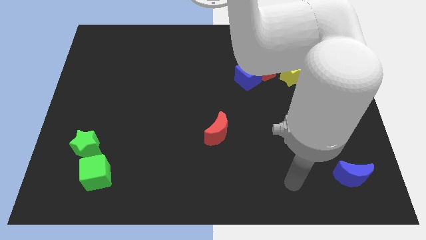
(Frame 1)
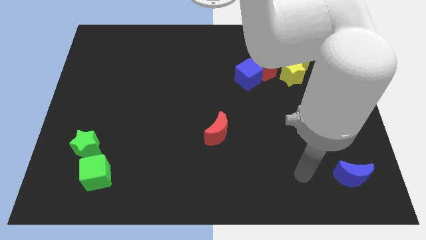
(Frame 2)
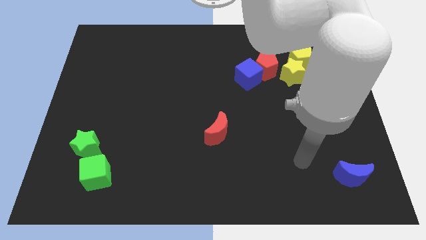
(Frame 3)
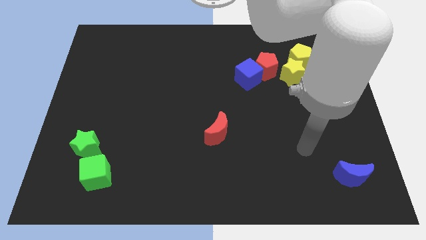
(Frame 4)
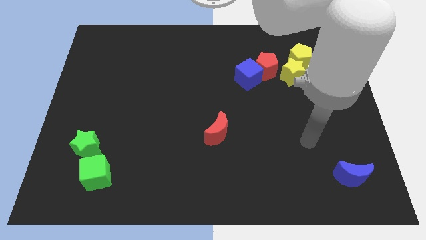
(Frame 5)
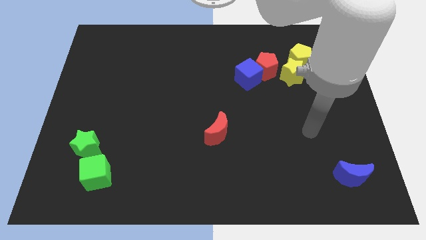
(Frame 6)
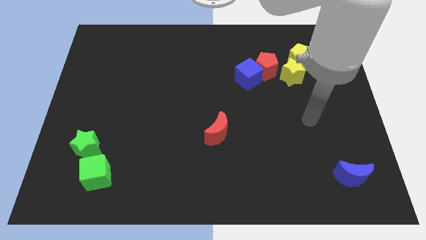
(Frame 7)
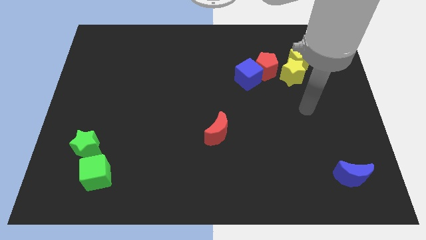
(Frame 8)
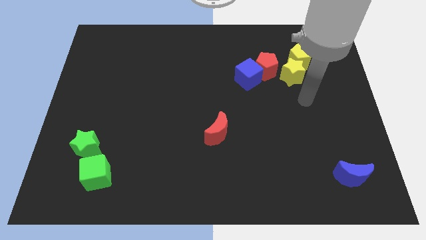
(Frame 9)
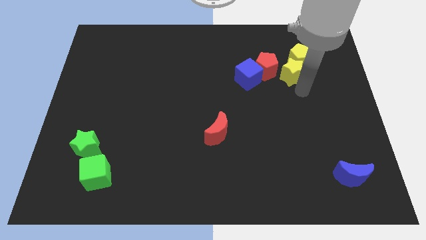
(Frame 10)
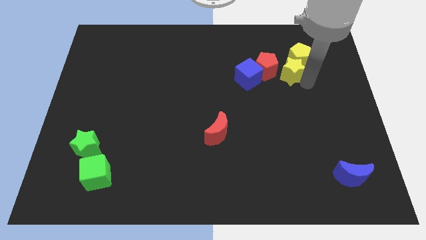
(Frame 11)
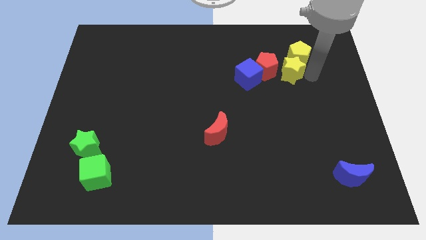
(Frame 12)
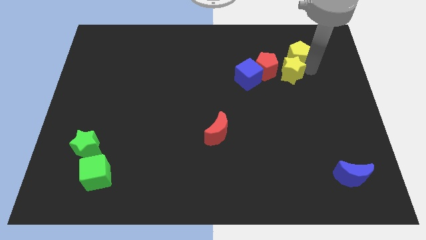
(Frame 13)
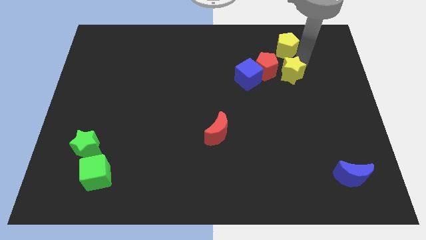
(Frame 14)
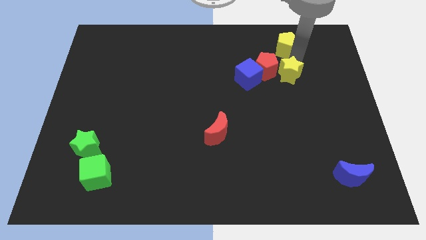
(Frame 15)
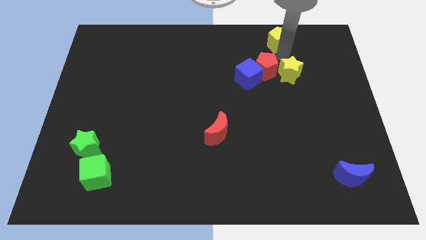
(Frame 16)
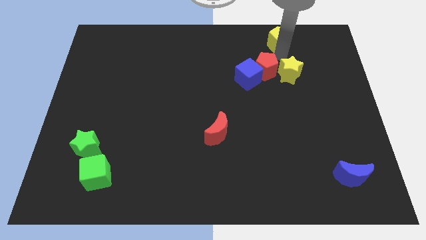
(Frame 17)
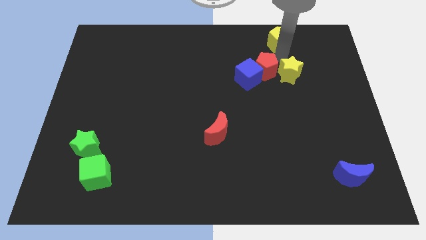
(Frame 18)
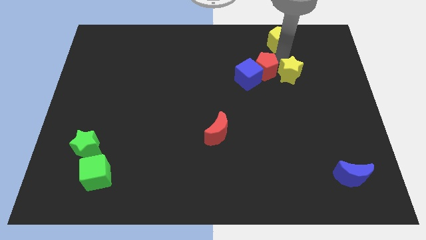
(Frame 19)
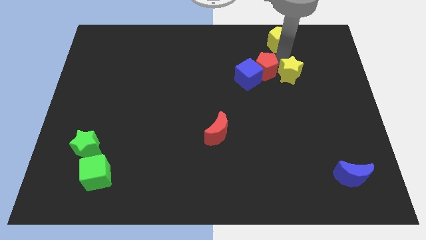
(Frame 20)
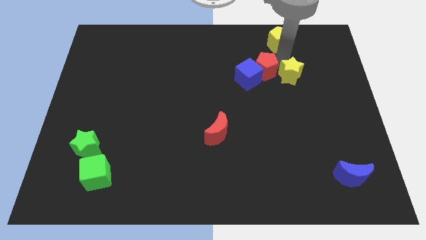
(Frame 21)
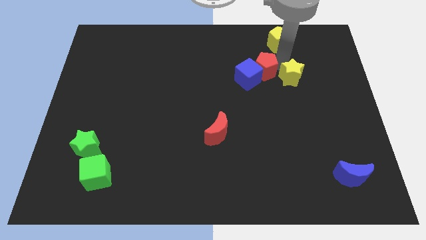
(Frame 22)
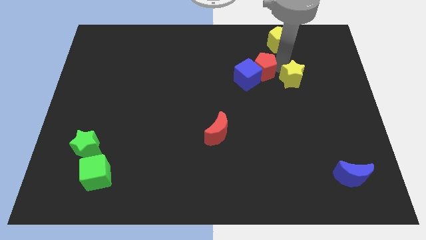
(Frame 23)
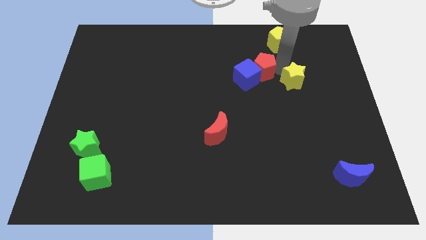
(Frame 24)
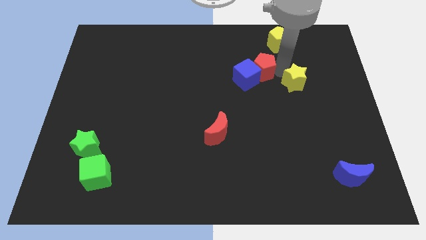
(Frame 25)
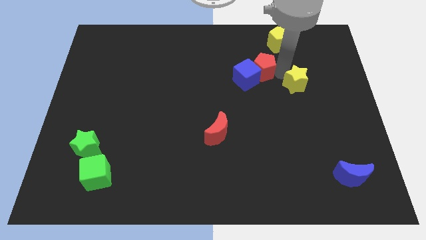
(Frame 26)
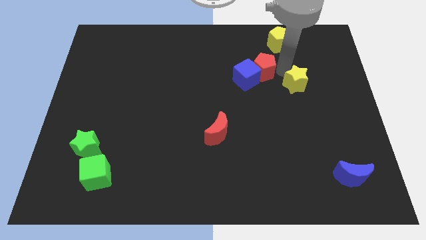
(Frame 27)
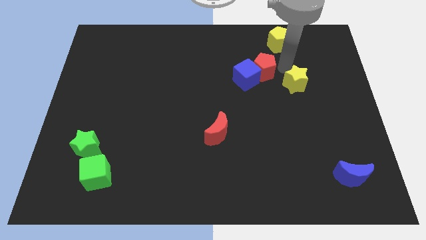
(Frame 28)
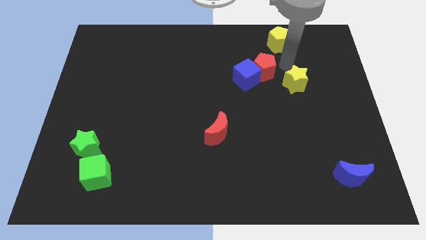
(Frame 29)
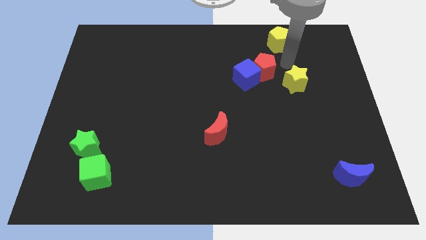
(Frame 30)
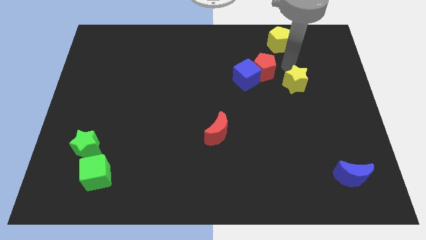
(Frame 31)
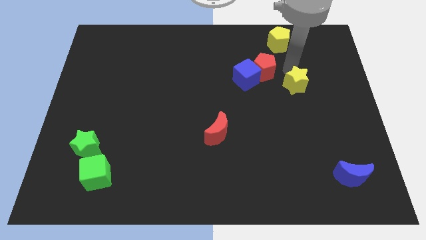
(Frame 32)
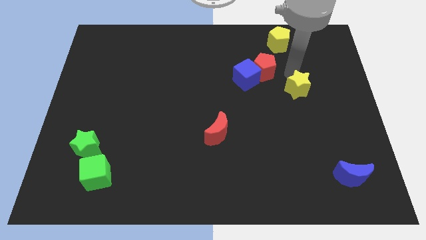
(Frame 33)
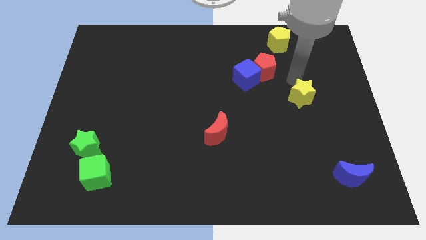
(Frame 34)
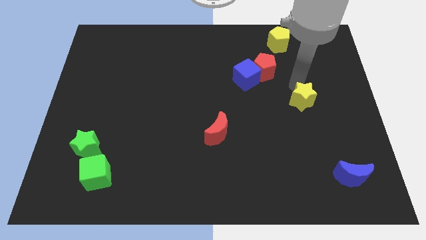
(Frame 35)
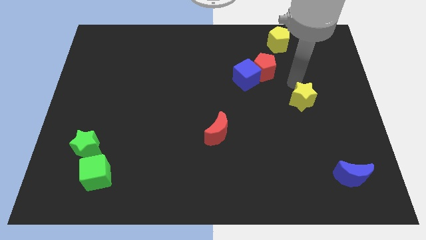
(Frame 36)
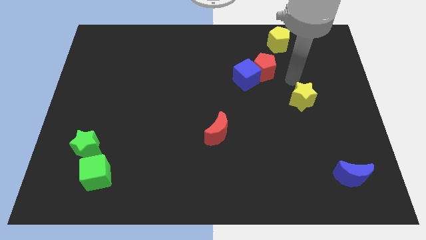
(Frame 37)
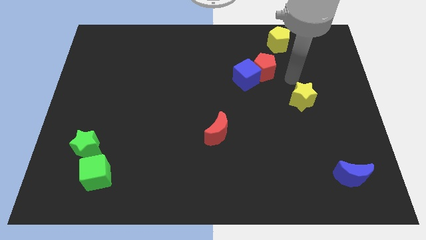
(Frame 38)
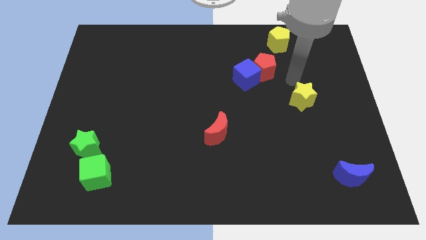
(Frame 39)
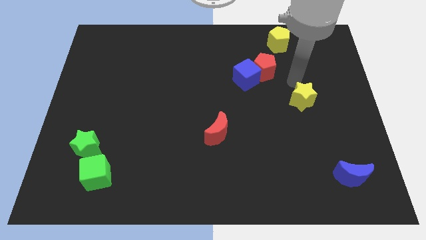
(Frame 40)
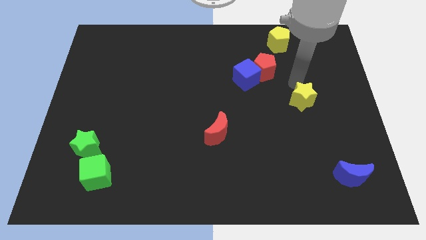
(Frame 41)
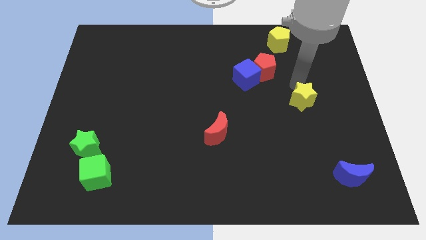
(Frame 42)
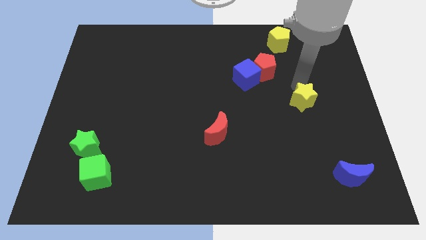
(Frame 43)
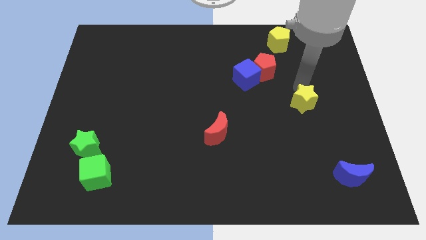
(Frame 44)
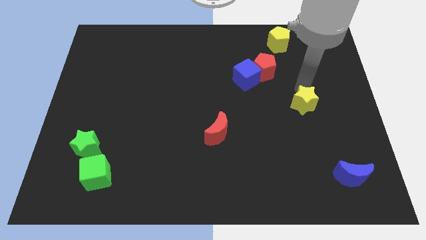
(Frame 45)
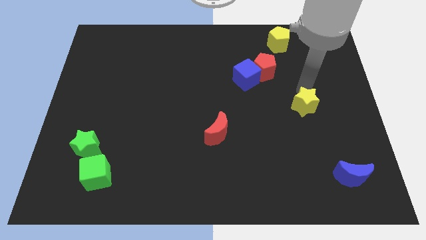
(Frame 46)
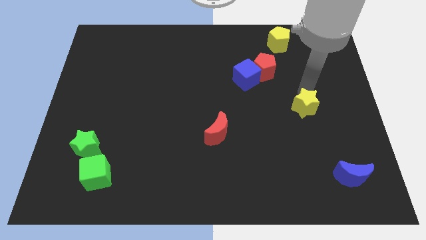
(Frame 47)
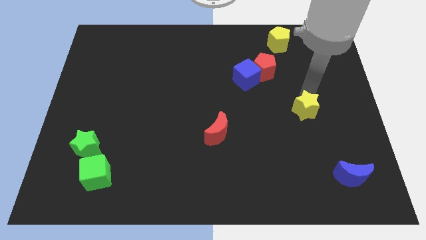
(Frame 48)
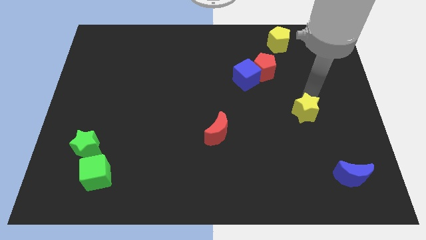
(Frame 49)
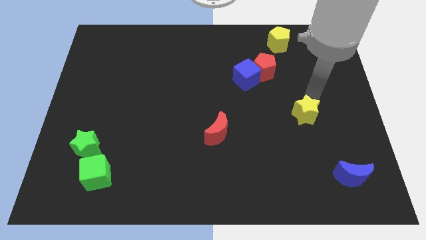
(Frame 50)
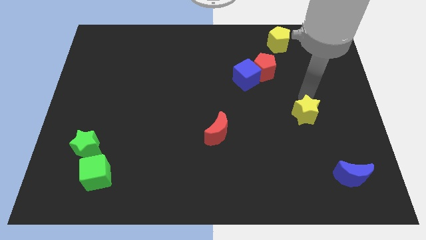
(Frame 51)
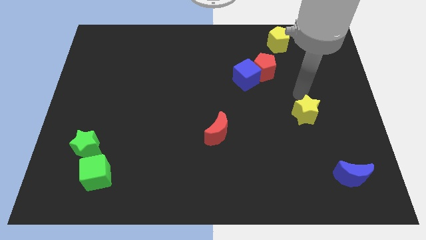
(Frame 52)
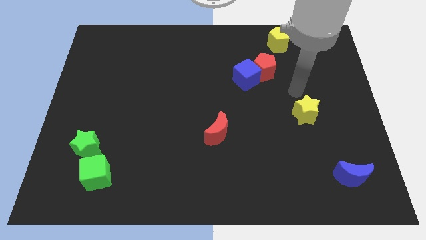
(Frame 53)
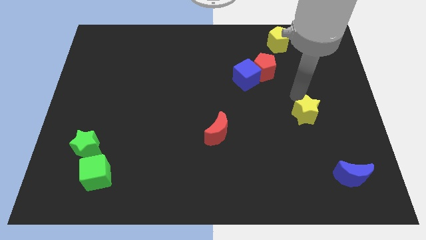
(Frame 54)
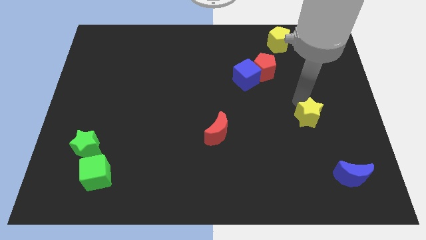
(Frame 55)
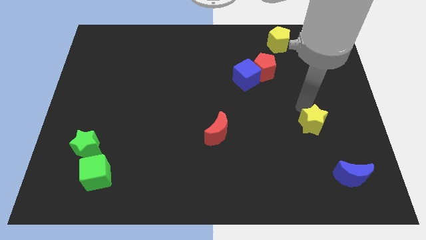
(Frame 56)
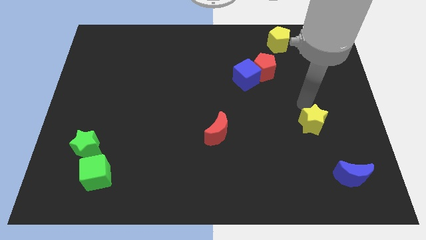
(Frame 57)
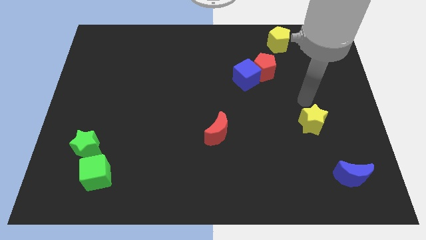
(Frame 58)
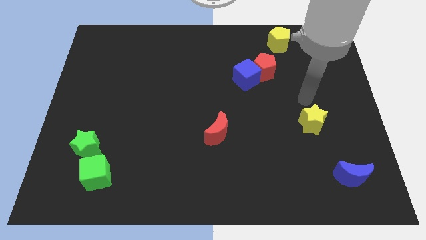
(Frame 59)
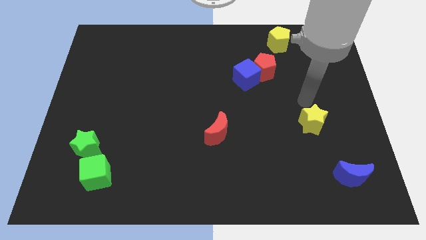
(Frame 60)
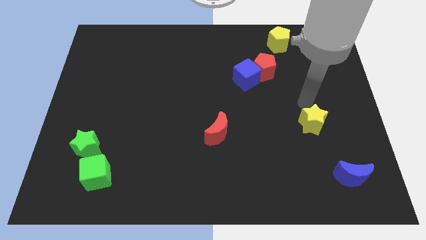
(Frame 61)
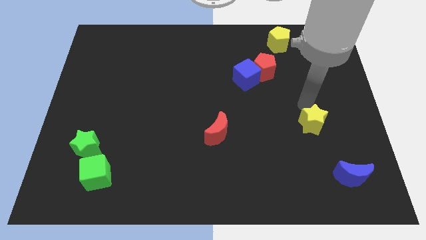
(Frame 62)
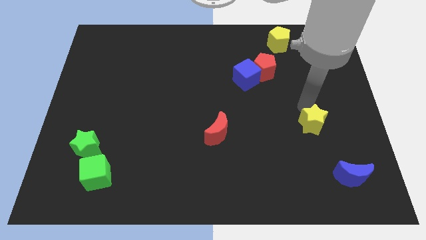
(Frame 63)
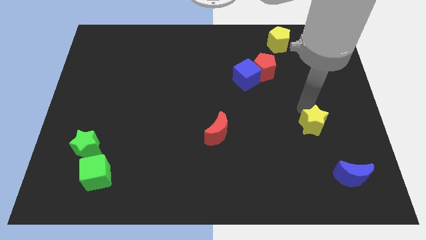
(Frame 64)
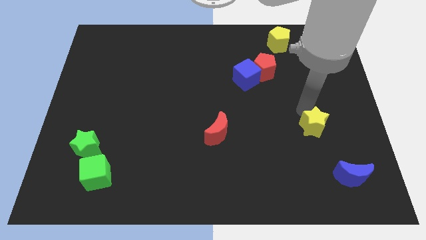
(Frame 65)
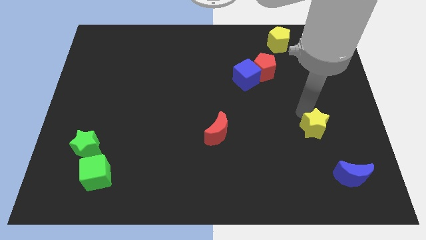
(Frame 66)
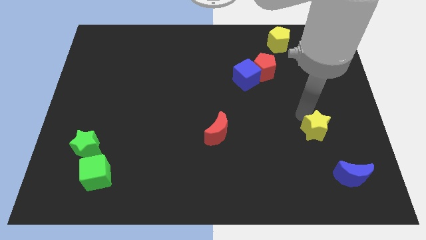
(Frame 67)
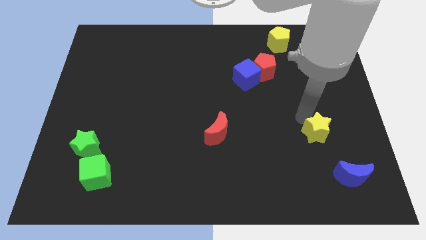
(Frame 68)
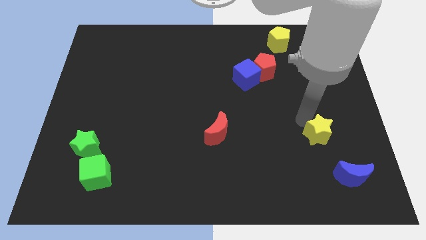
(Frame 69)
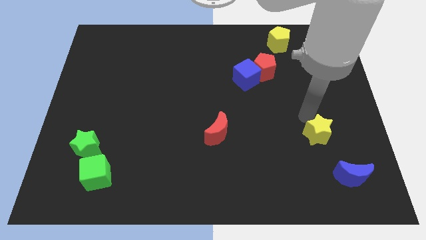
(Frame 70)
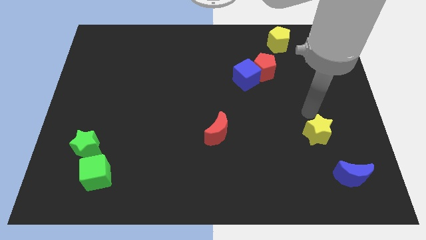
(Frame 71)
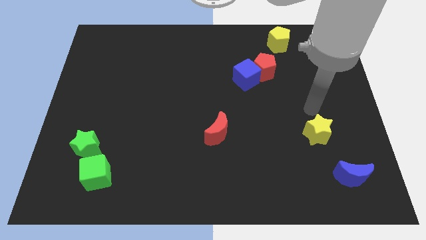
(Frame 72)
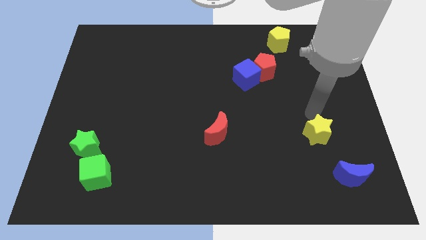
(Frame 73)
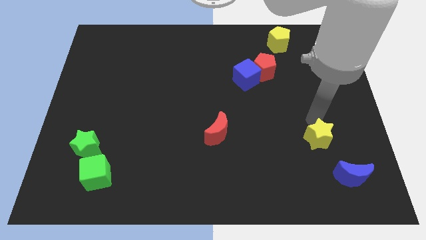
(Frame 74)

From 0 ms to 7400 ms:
push the yellow star to the top left of the blue moon
